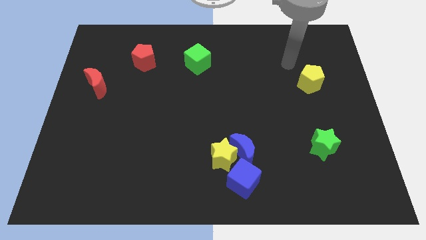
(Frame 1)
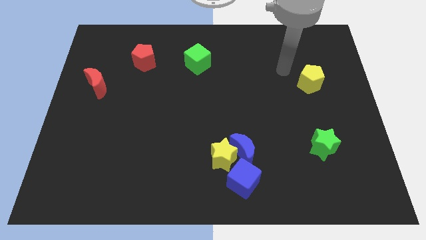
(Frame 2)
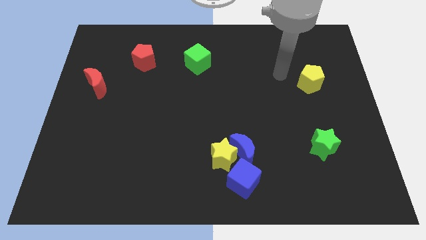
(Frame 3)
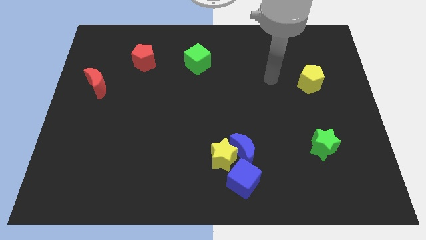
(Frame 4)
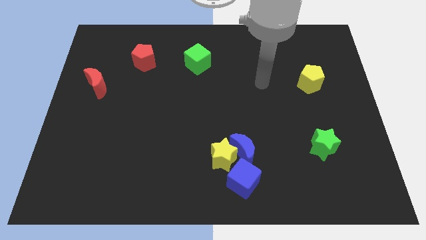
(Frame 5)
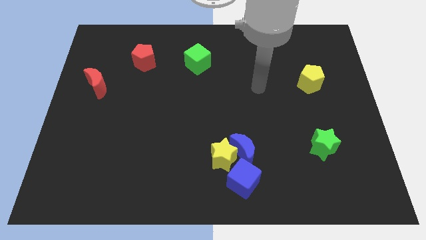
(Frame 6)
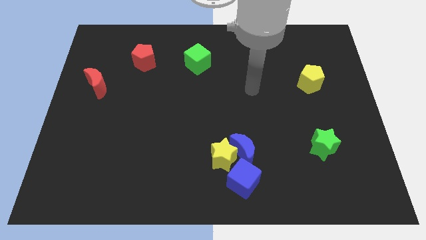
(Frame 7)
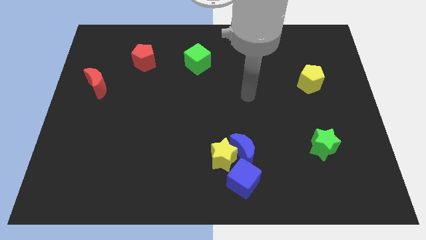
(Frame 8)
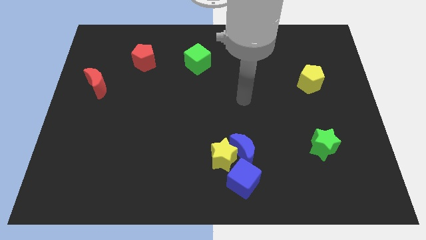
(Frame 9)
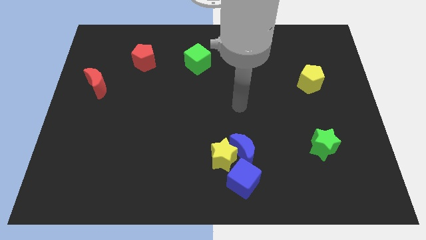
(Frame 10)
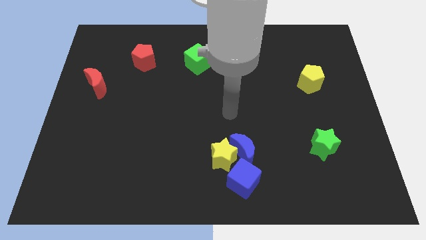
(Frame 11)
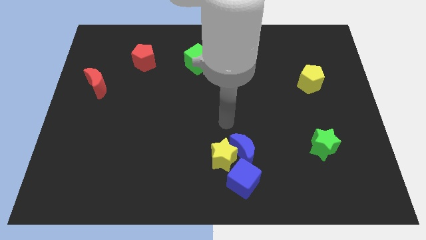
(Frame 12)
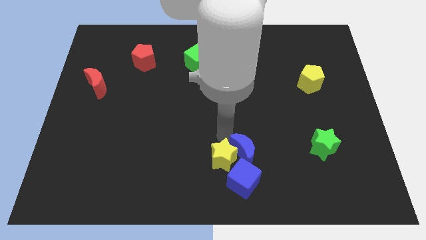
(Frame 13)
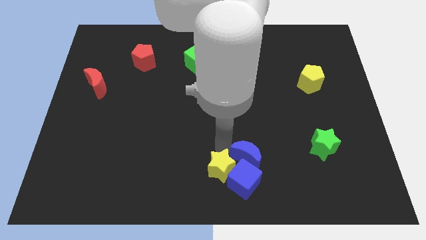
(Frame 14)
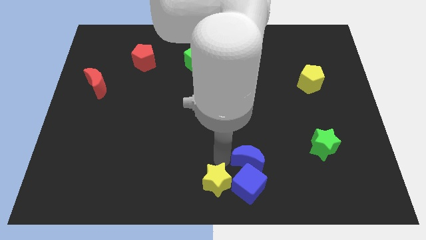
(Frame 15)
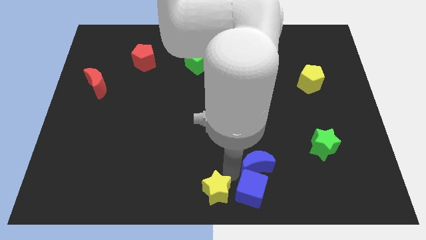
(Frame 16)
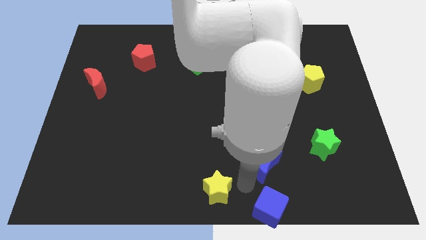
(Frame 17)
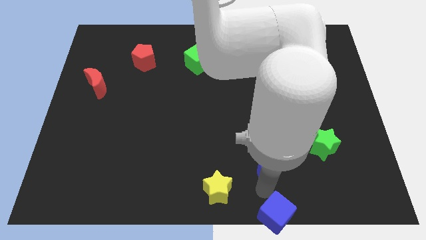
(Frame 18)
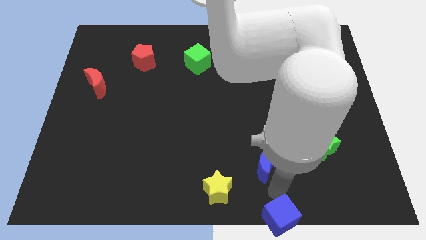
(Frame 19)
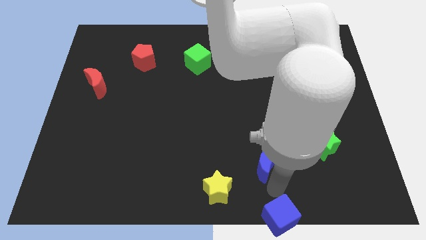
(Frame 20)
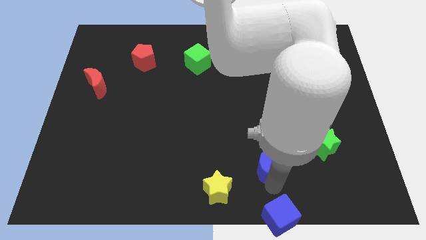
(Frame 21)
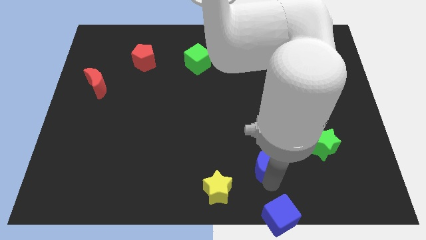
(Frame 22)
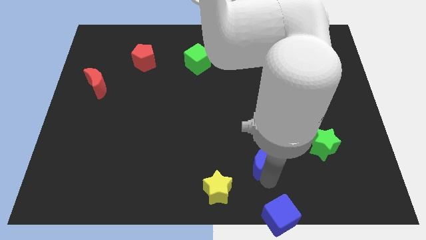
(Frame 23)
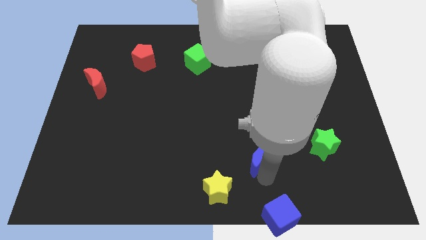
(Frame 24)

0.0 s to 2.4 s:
pull the blue moon apart from the yellow star and blue cube

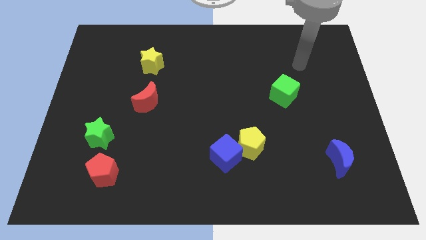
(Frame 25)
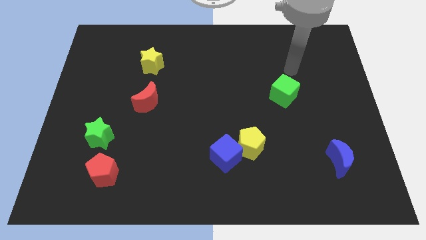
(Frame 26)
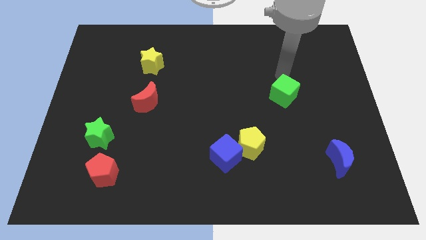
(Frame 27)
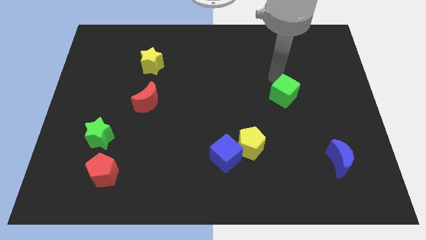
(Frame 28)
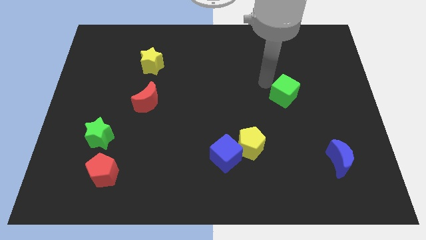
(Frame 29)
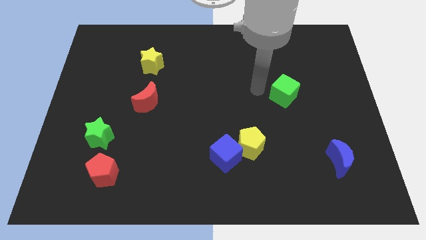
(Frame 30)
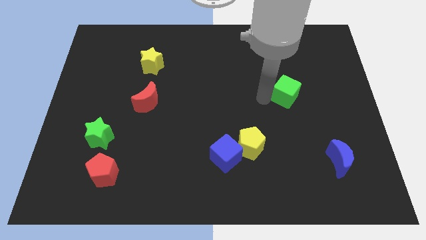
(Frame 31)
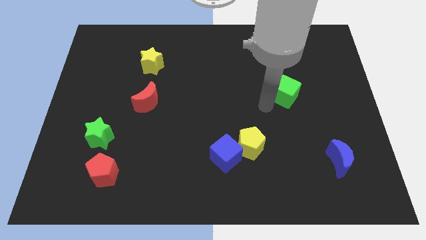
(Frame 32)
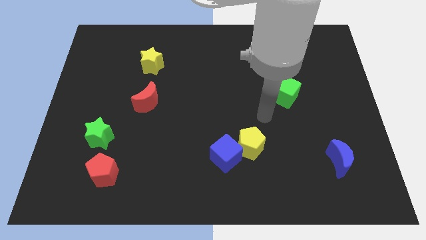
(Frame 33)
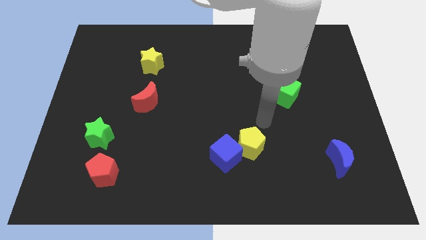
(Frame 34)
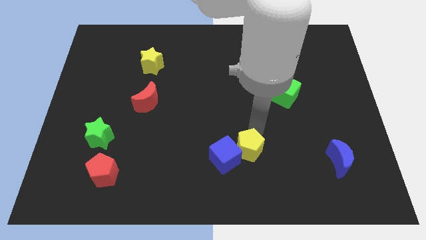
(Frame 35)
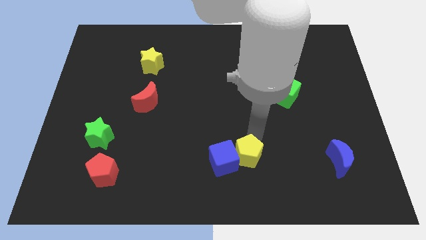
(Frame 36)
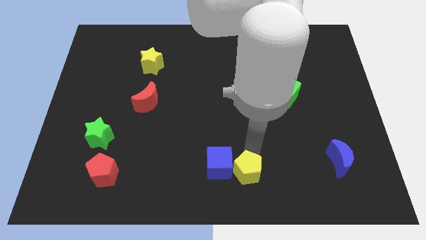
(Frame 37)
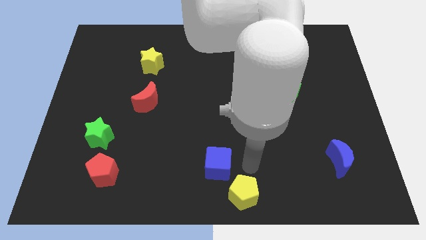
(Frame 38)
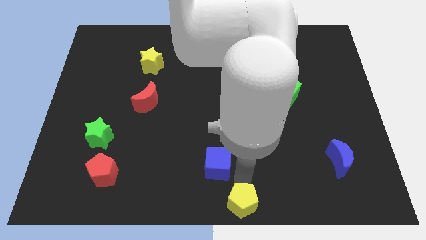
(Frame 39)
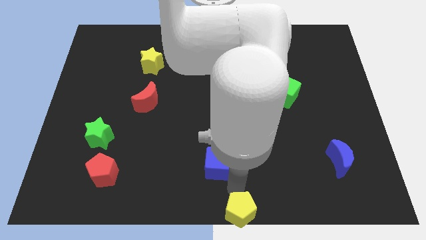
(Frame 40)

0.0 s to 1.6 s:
pull the blue cube apart from the yellow pentagon

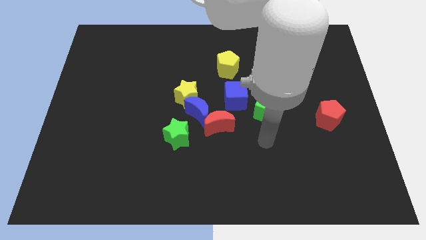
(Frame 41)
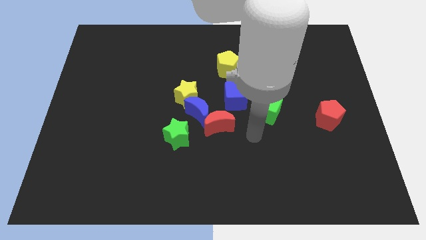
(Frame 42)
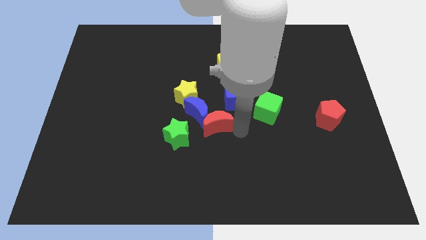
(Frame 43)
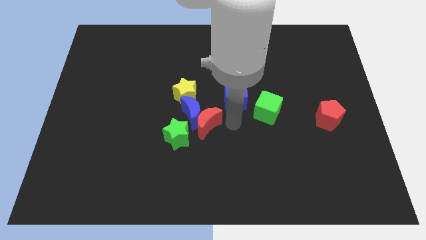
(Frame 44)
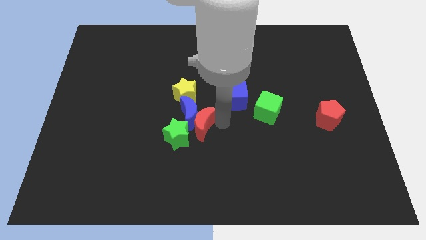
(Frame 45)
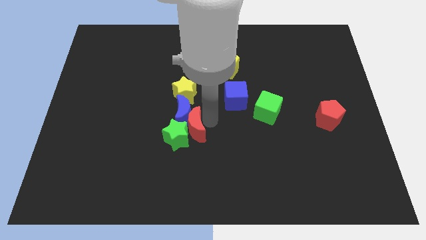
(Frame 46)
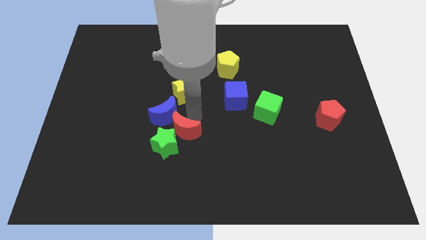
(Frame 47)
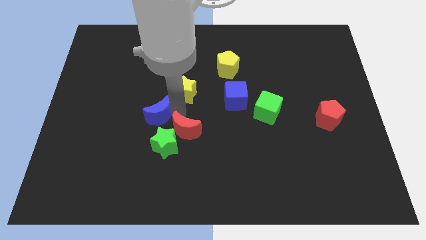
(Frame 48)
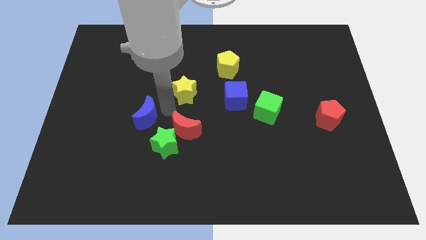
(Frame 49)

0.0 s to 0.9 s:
separate the yellow star from the blue moon

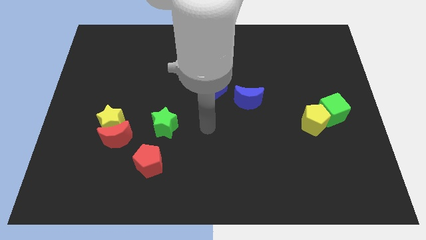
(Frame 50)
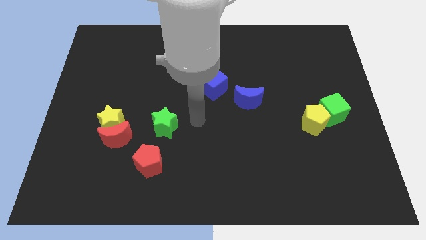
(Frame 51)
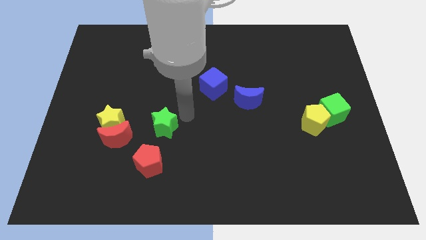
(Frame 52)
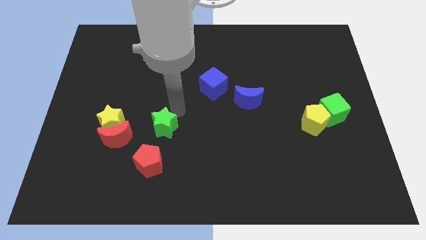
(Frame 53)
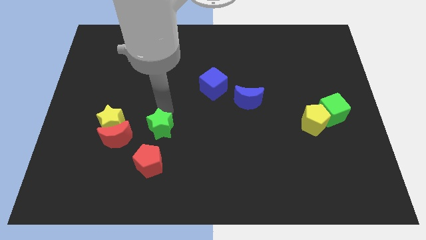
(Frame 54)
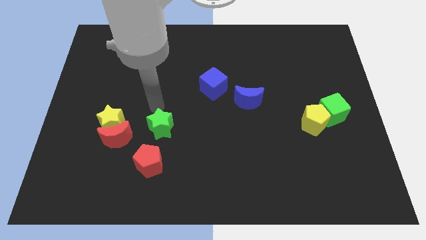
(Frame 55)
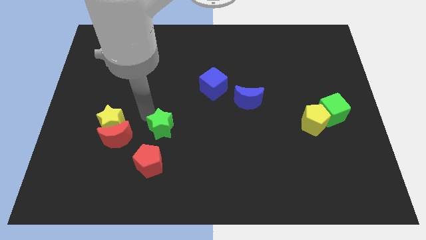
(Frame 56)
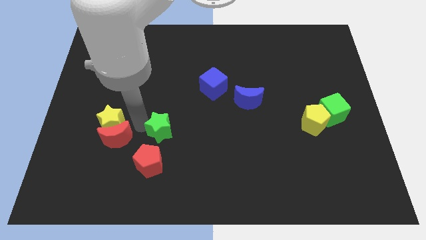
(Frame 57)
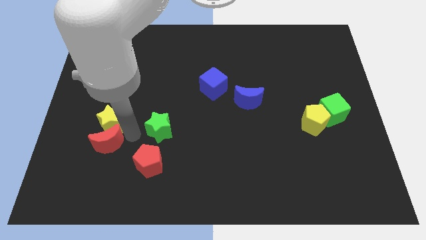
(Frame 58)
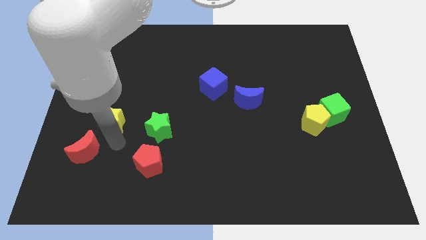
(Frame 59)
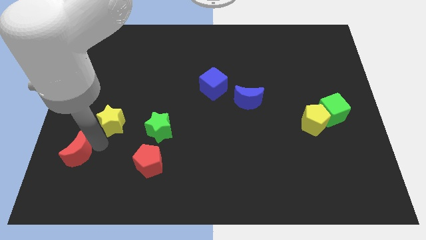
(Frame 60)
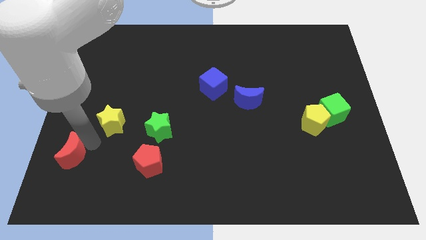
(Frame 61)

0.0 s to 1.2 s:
separate the yellow star from the red moon

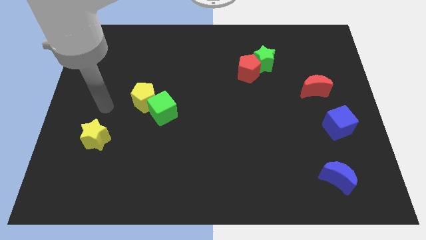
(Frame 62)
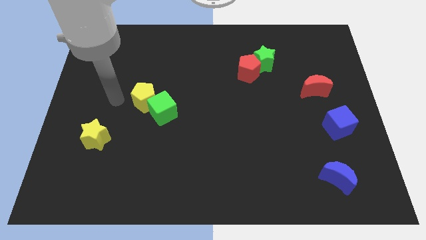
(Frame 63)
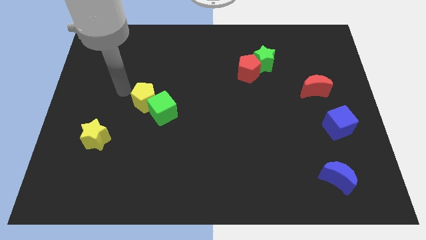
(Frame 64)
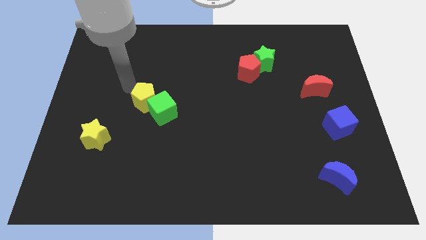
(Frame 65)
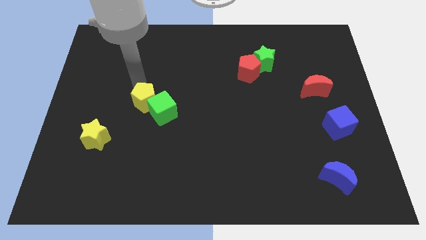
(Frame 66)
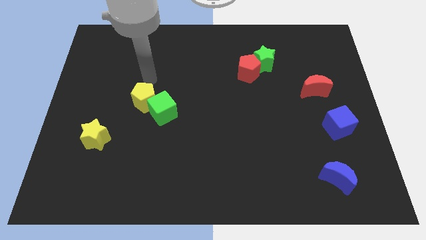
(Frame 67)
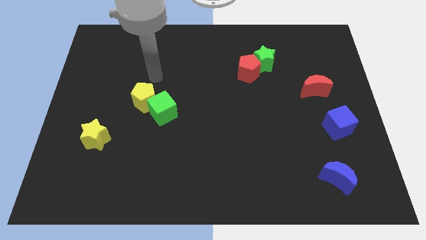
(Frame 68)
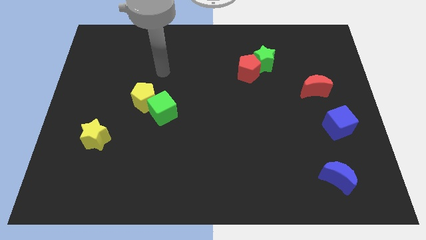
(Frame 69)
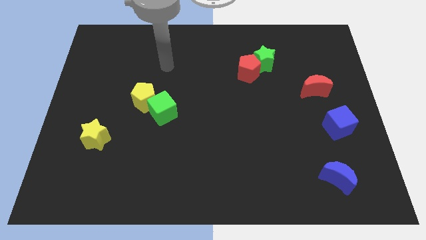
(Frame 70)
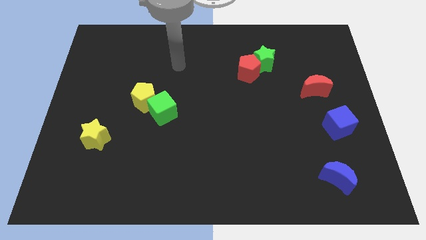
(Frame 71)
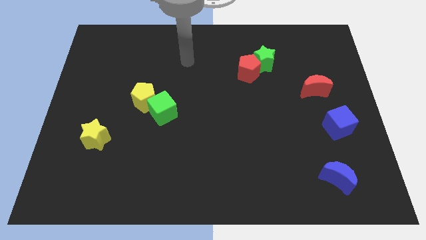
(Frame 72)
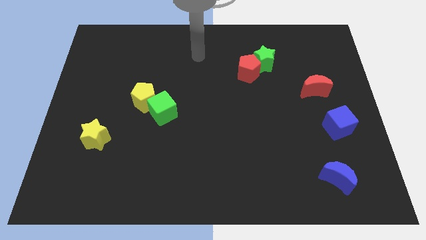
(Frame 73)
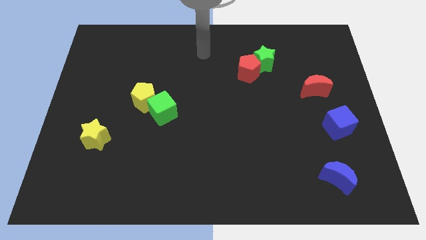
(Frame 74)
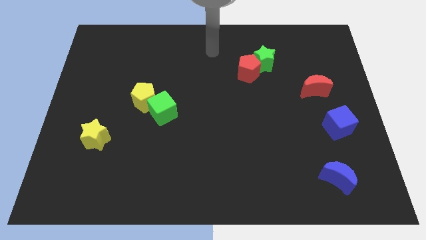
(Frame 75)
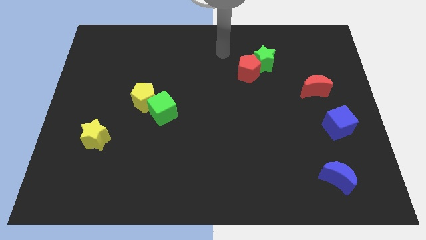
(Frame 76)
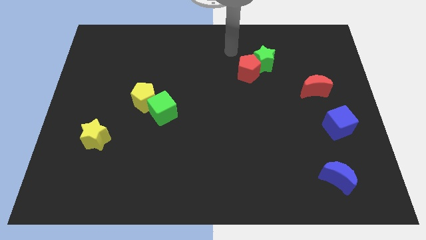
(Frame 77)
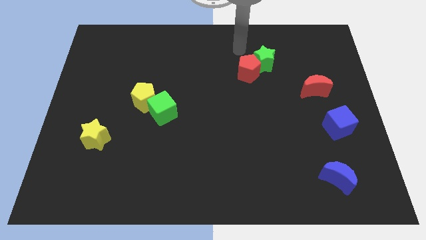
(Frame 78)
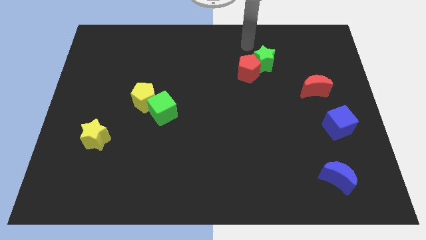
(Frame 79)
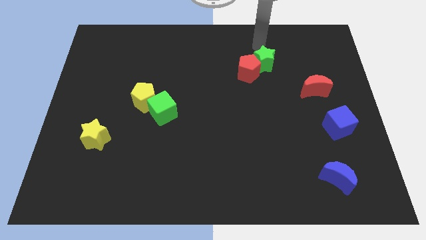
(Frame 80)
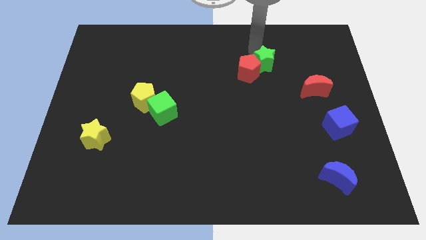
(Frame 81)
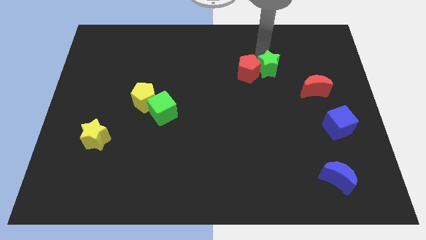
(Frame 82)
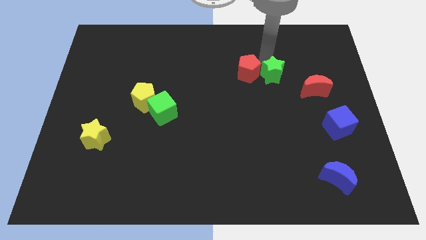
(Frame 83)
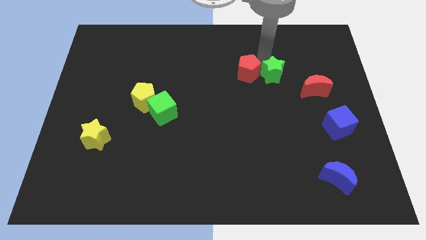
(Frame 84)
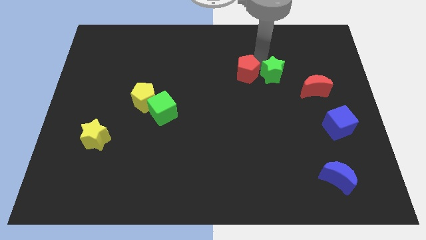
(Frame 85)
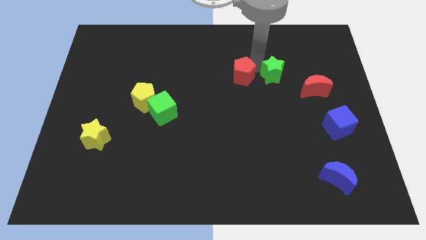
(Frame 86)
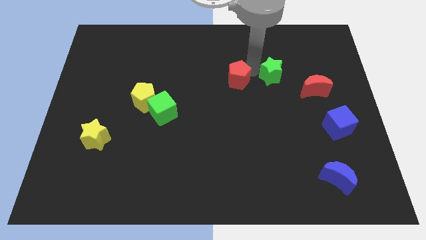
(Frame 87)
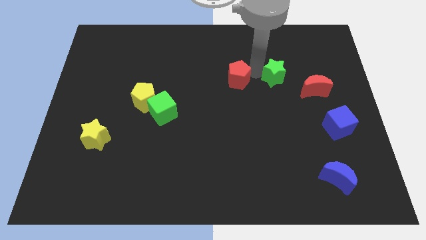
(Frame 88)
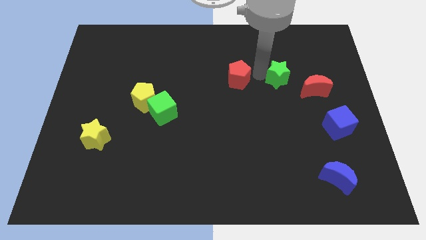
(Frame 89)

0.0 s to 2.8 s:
move the red pentagon away from the green star

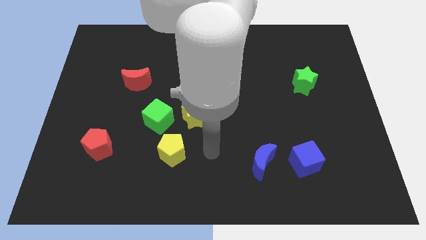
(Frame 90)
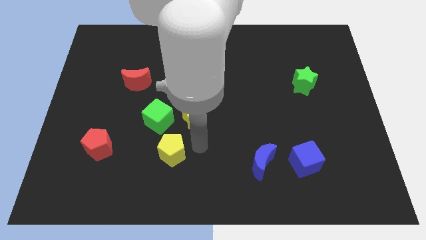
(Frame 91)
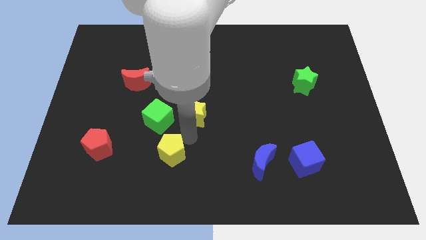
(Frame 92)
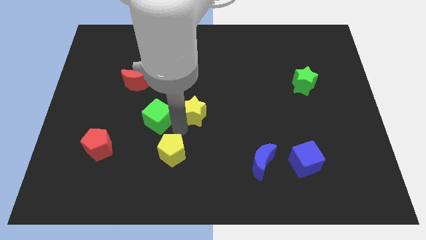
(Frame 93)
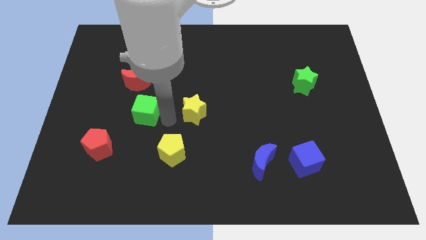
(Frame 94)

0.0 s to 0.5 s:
move the yellow star away from the green cube
